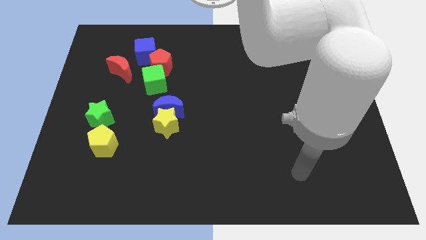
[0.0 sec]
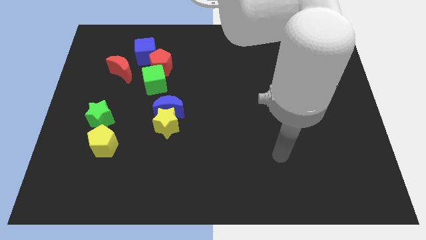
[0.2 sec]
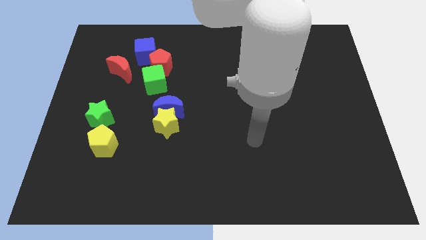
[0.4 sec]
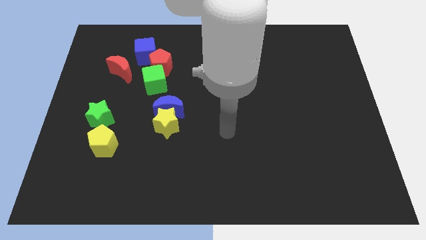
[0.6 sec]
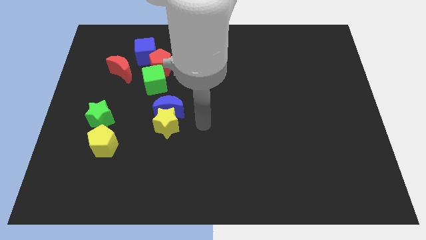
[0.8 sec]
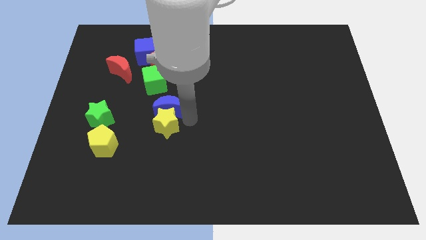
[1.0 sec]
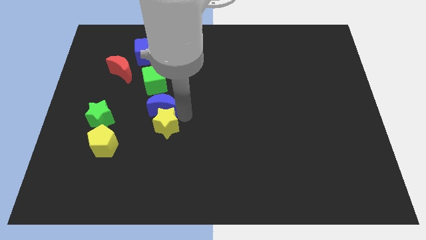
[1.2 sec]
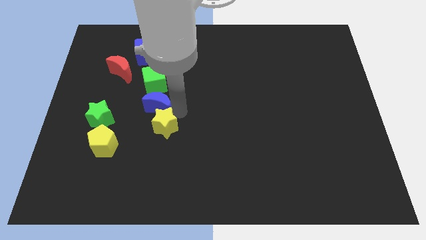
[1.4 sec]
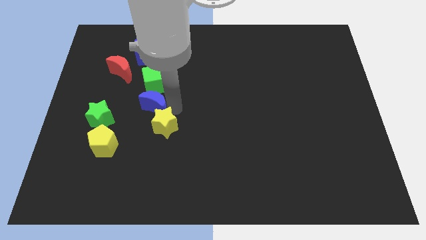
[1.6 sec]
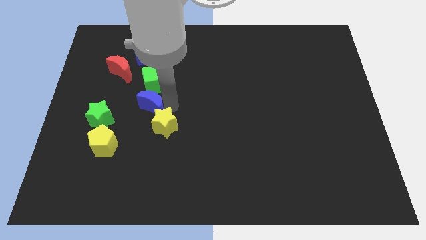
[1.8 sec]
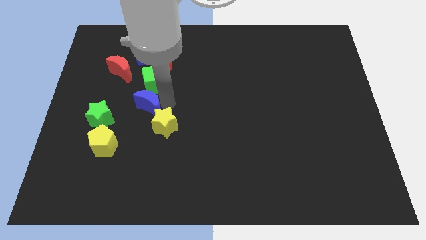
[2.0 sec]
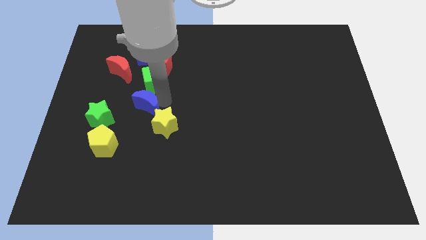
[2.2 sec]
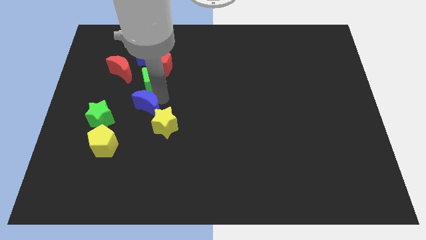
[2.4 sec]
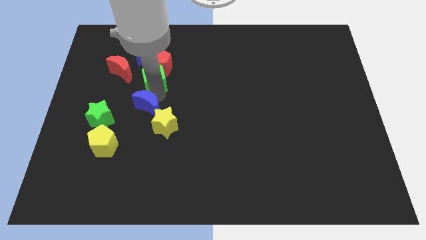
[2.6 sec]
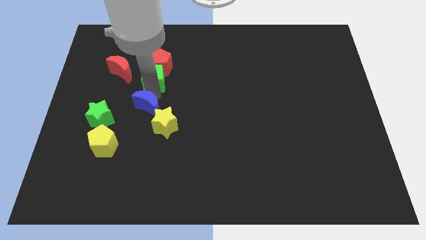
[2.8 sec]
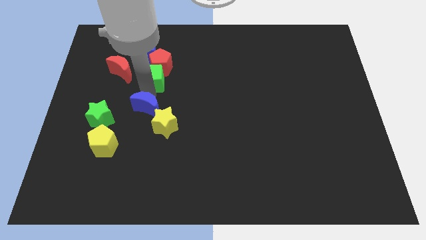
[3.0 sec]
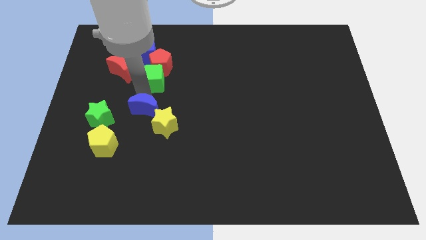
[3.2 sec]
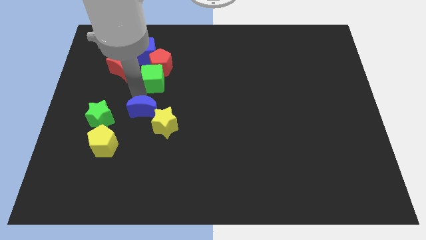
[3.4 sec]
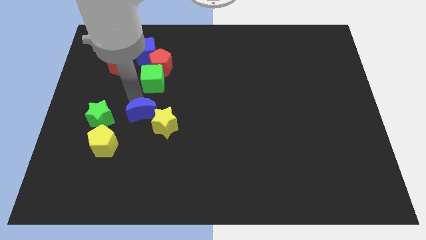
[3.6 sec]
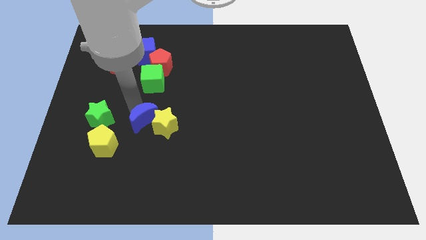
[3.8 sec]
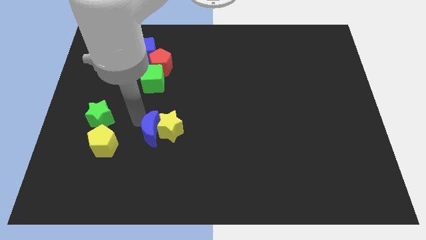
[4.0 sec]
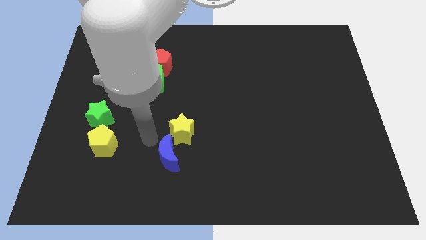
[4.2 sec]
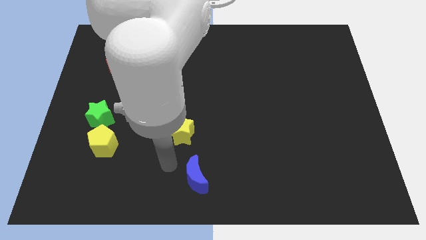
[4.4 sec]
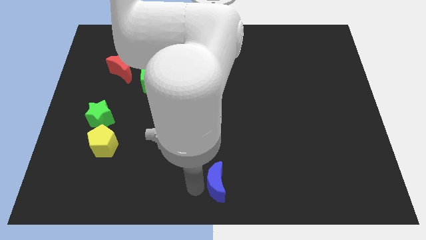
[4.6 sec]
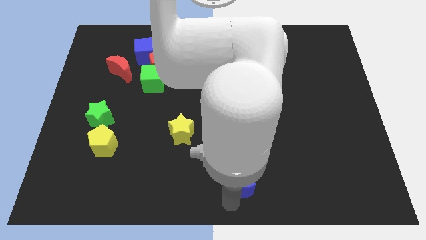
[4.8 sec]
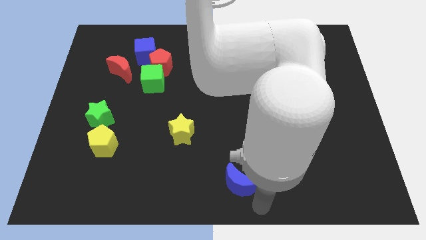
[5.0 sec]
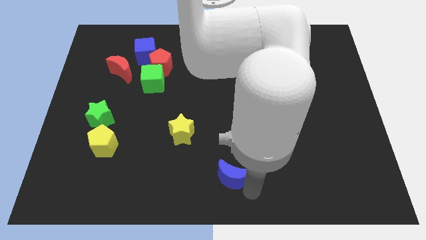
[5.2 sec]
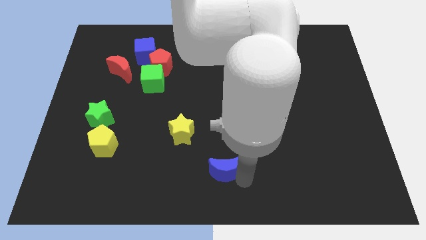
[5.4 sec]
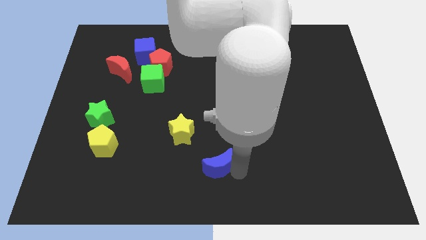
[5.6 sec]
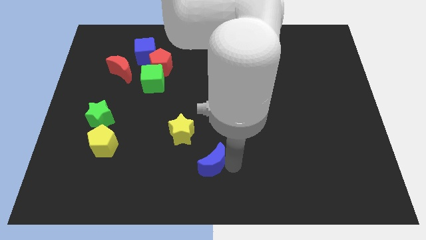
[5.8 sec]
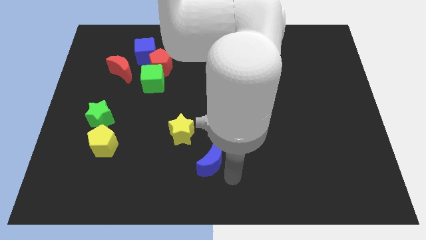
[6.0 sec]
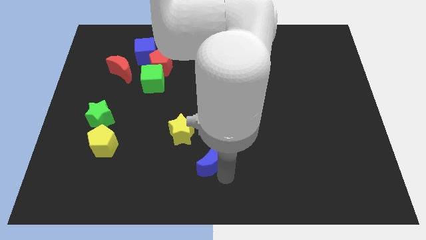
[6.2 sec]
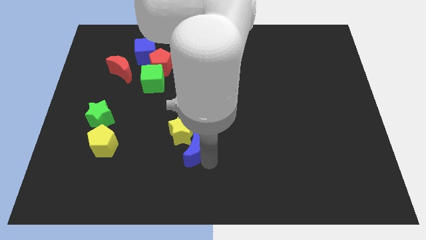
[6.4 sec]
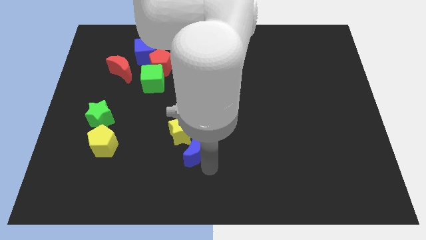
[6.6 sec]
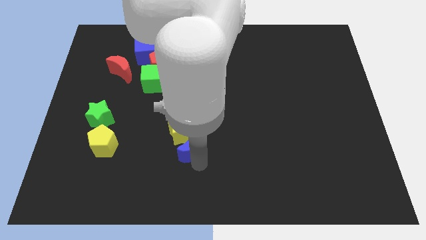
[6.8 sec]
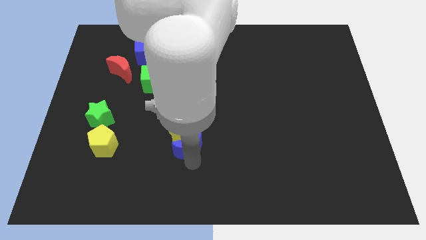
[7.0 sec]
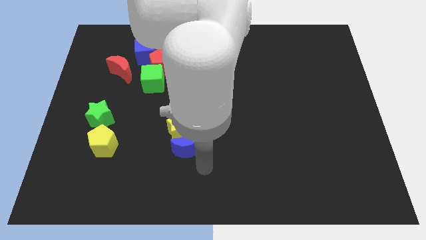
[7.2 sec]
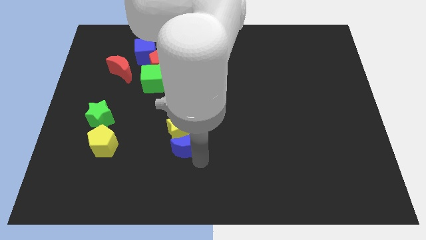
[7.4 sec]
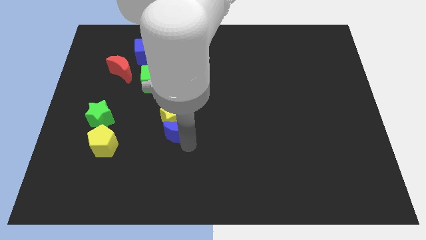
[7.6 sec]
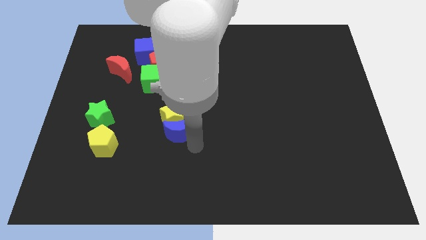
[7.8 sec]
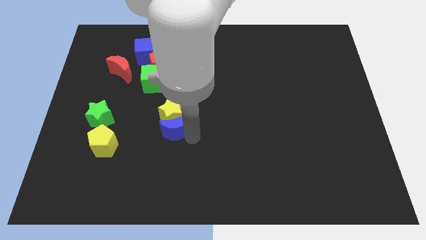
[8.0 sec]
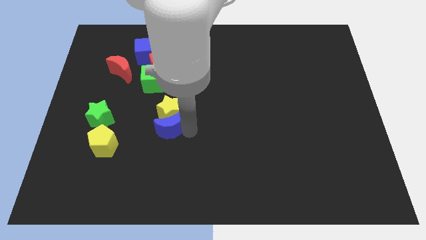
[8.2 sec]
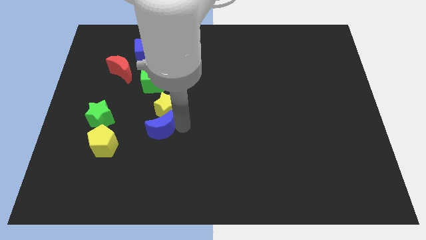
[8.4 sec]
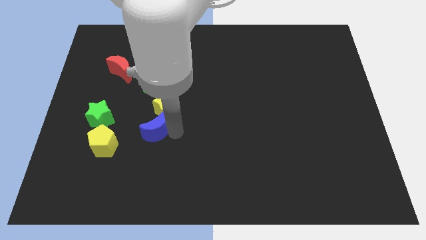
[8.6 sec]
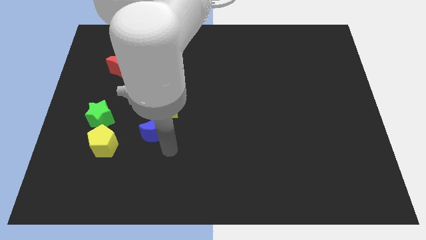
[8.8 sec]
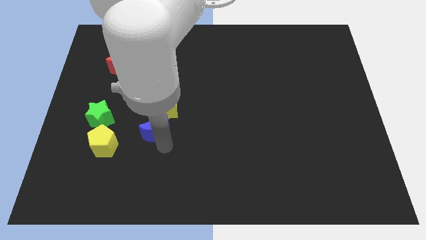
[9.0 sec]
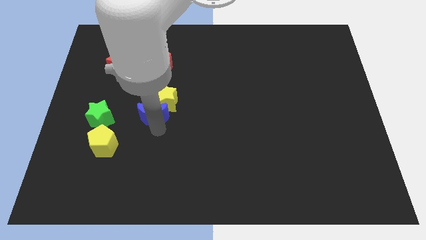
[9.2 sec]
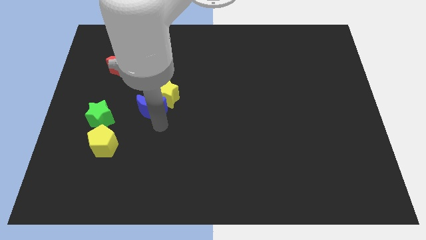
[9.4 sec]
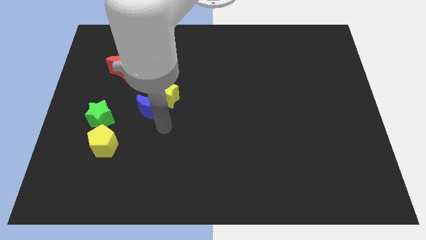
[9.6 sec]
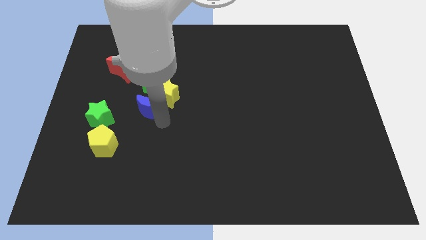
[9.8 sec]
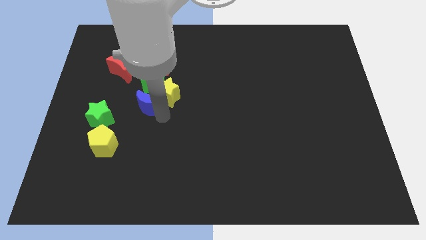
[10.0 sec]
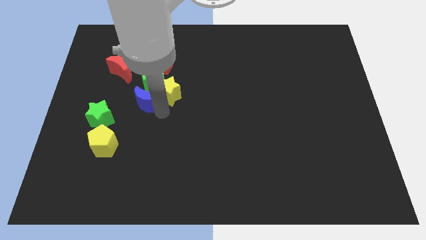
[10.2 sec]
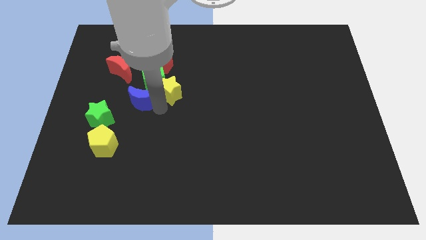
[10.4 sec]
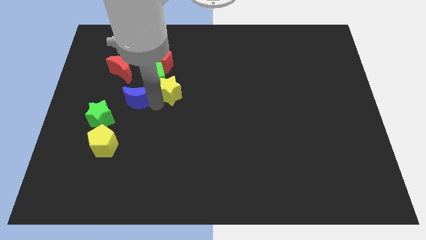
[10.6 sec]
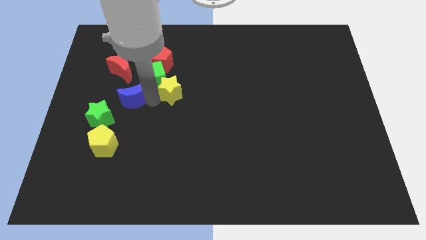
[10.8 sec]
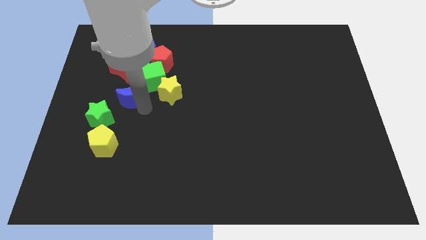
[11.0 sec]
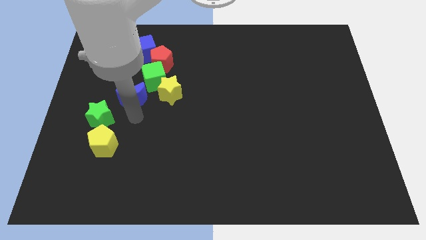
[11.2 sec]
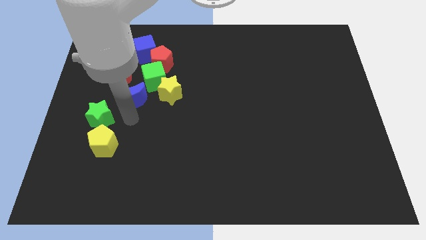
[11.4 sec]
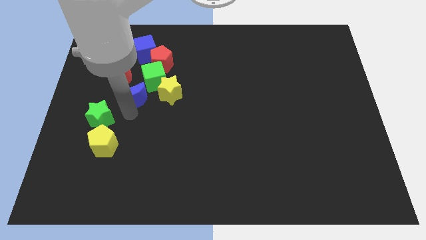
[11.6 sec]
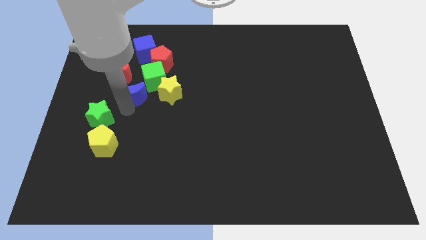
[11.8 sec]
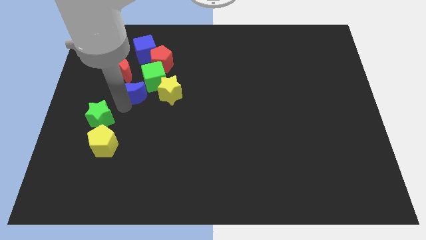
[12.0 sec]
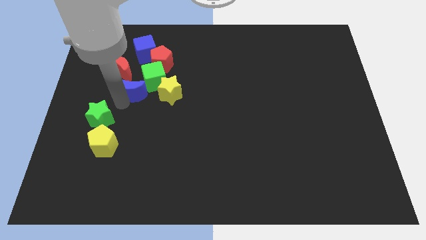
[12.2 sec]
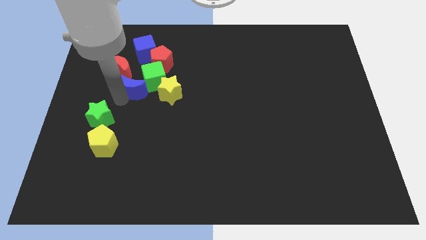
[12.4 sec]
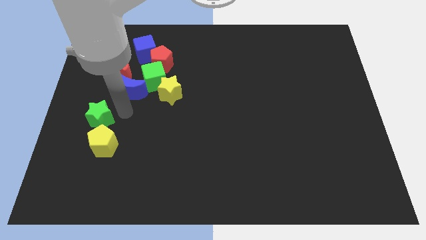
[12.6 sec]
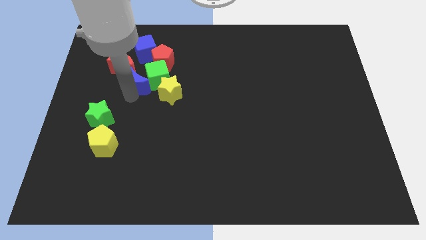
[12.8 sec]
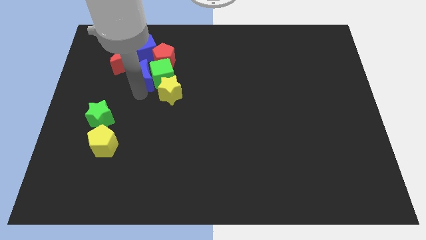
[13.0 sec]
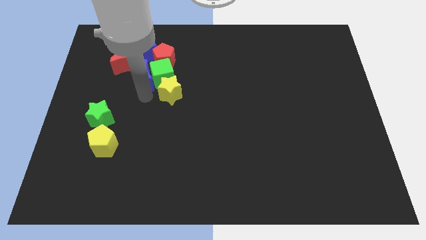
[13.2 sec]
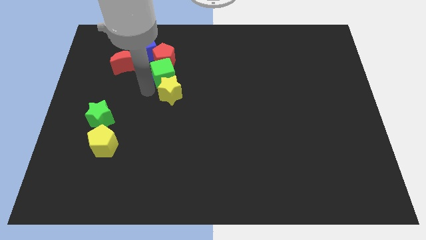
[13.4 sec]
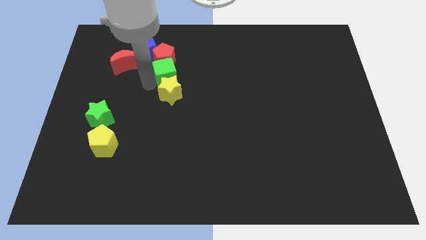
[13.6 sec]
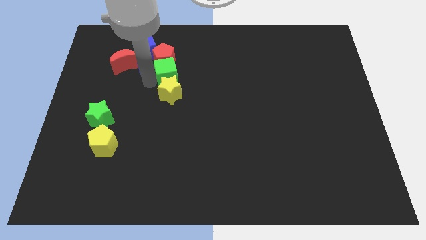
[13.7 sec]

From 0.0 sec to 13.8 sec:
slide the blue moon next to the blue cube

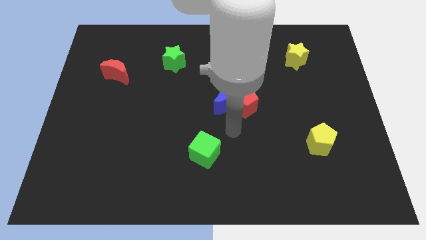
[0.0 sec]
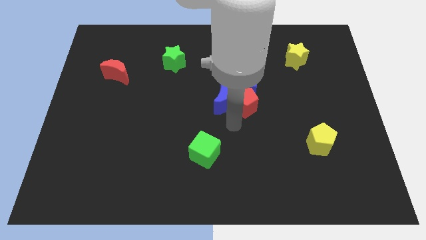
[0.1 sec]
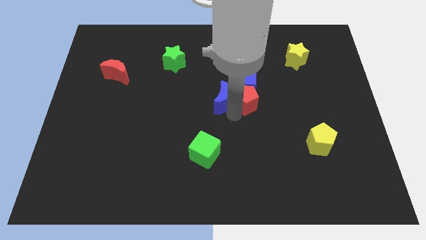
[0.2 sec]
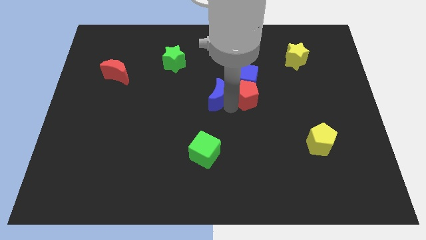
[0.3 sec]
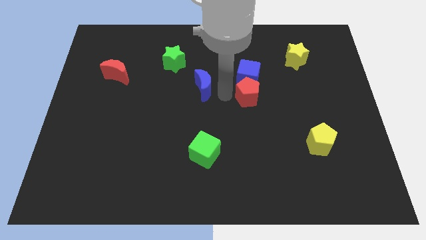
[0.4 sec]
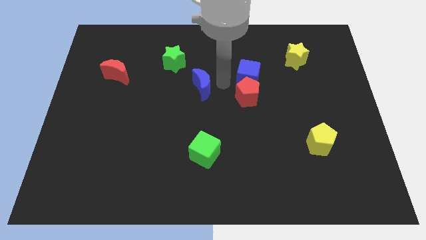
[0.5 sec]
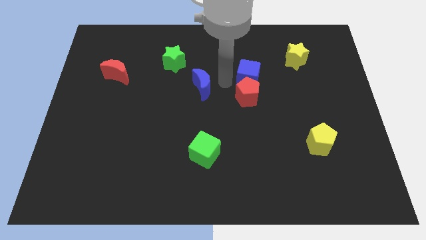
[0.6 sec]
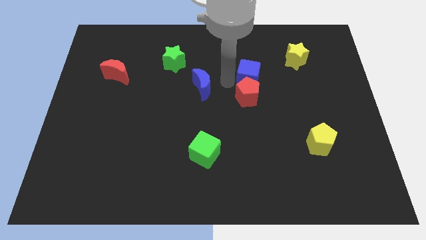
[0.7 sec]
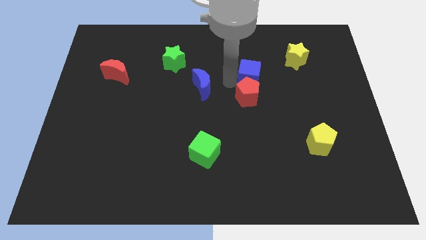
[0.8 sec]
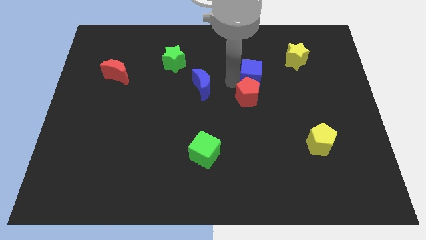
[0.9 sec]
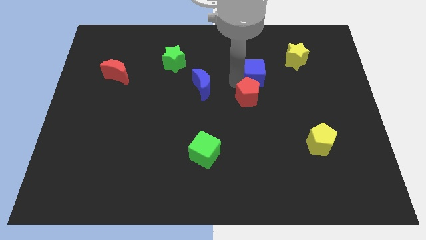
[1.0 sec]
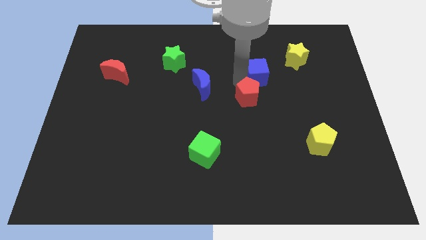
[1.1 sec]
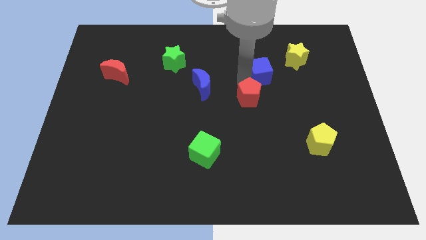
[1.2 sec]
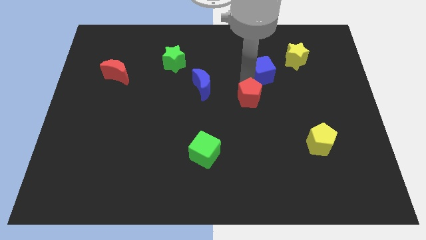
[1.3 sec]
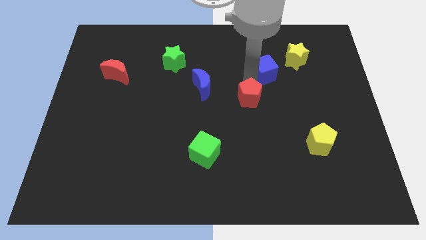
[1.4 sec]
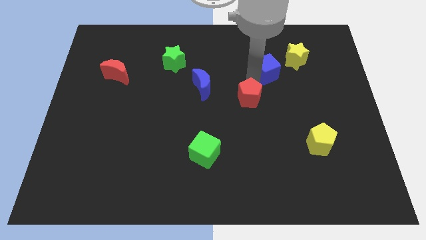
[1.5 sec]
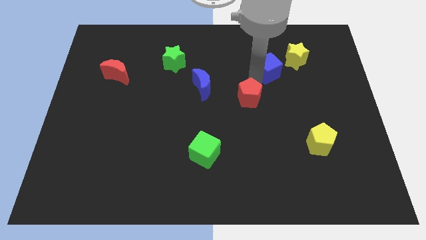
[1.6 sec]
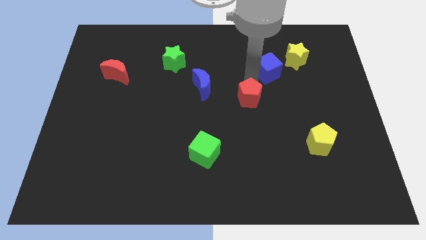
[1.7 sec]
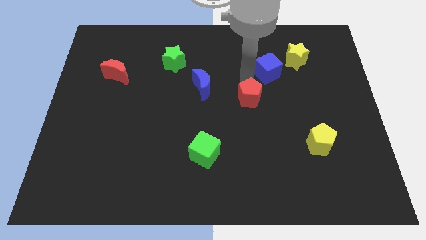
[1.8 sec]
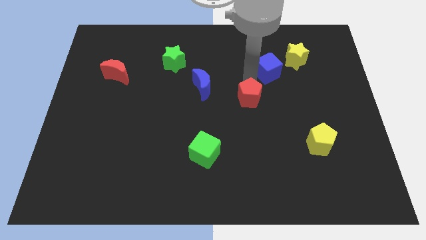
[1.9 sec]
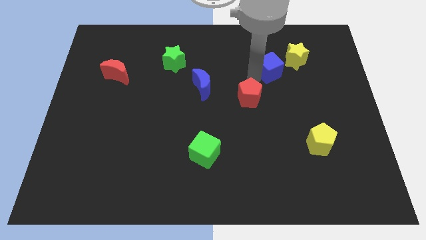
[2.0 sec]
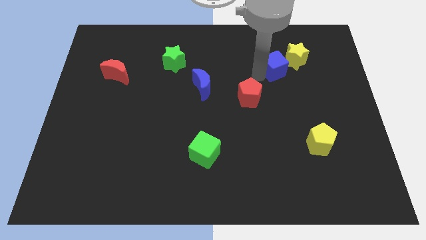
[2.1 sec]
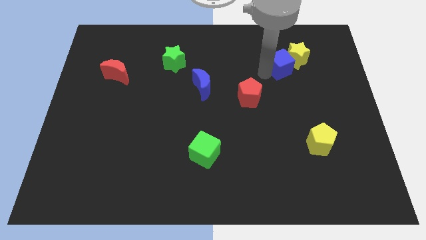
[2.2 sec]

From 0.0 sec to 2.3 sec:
push the blue cube next to the yellow star
